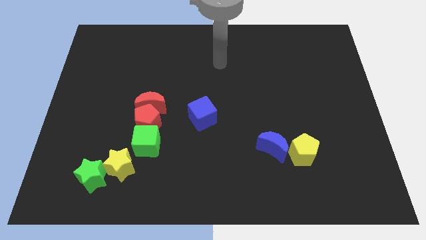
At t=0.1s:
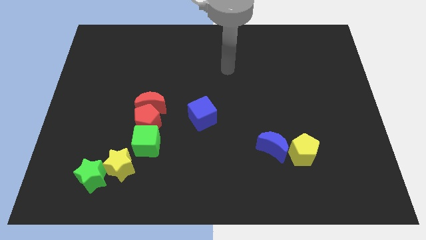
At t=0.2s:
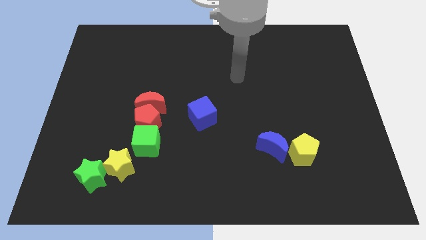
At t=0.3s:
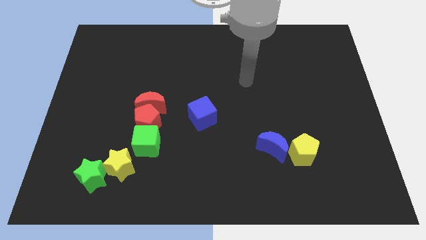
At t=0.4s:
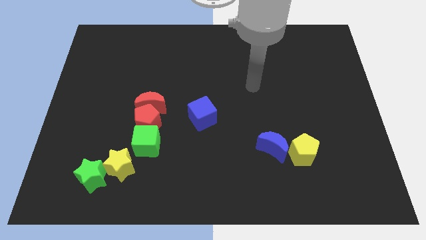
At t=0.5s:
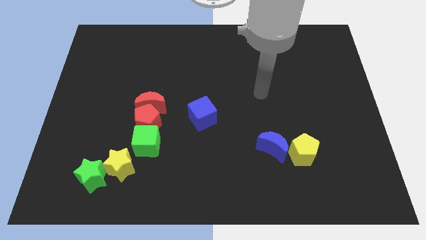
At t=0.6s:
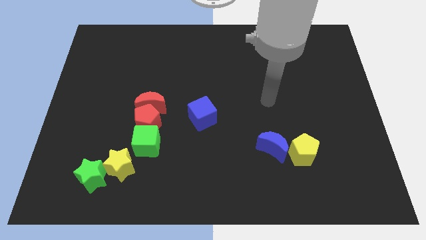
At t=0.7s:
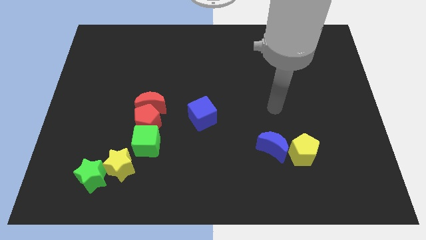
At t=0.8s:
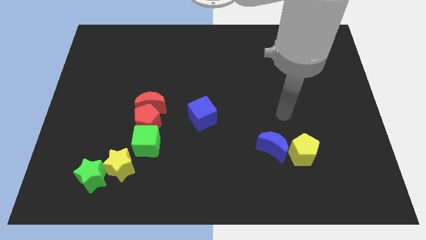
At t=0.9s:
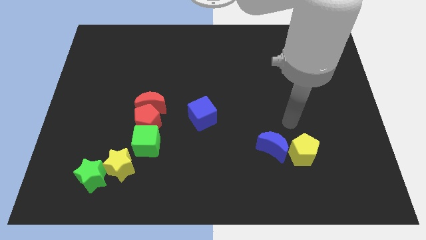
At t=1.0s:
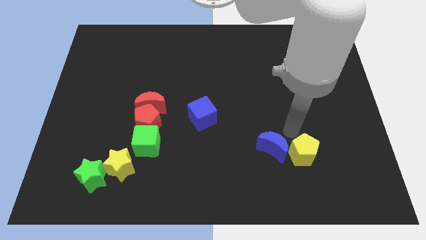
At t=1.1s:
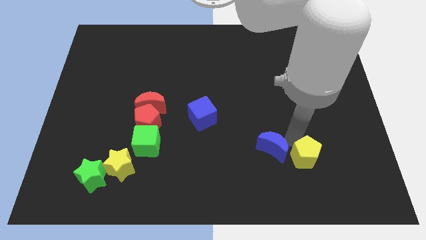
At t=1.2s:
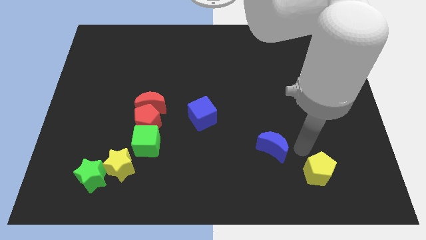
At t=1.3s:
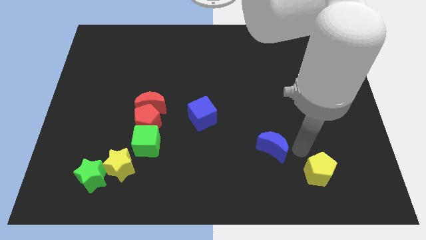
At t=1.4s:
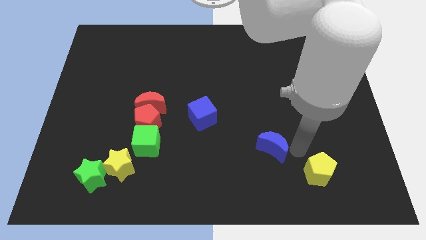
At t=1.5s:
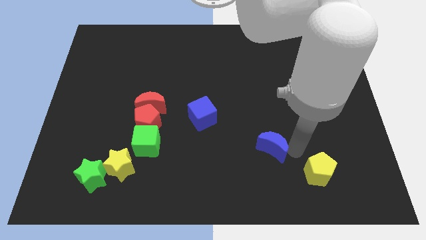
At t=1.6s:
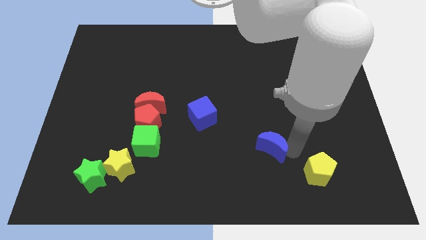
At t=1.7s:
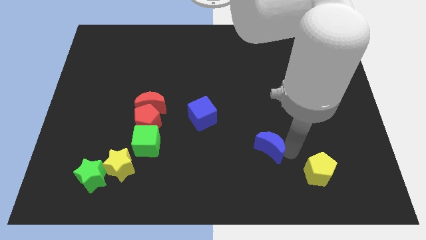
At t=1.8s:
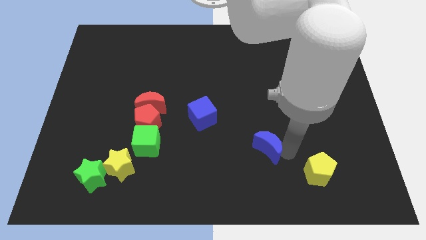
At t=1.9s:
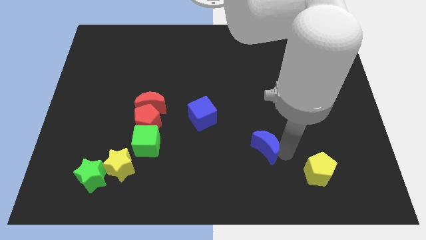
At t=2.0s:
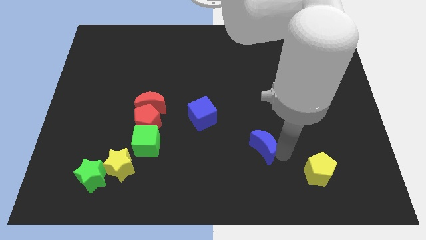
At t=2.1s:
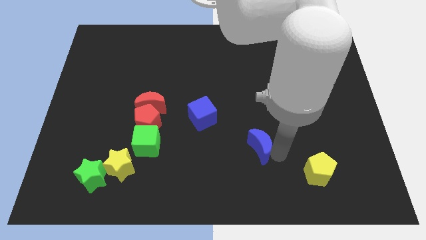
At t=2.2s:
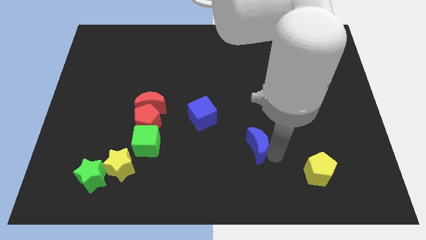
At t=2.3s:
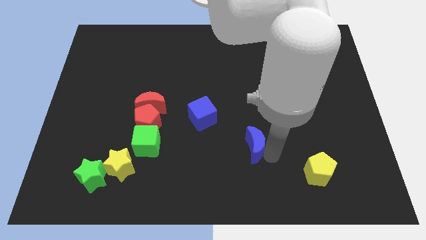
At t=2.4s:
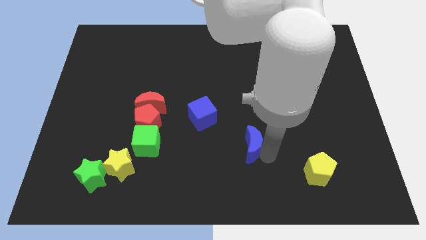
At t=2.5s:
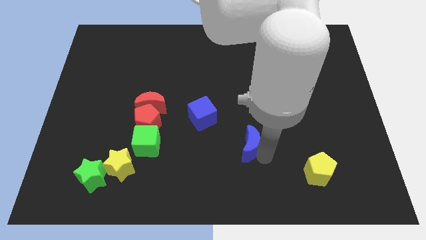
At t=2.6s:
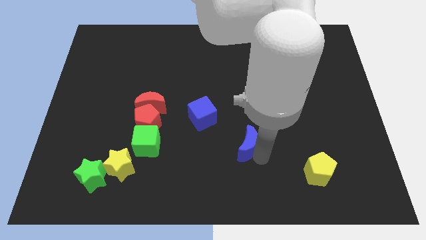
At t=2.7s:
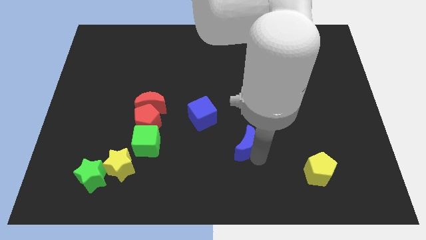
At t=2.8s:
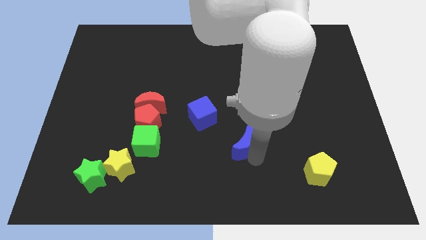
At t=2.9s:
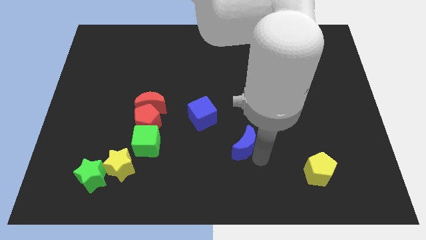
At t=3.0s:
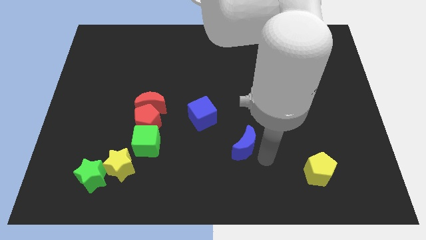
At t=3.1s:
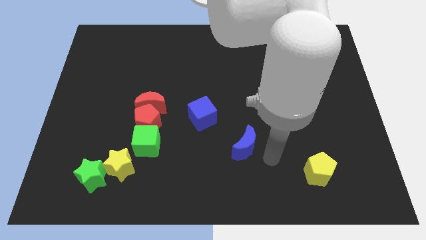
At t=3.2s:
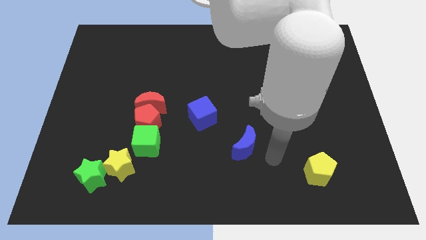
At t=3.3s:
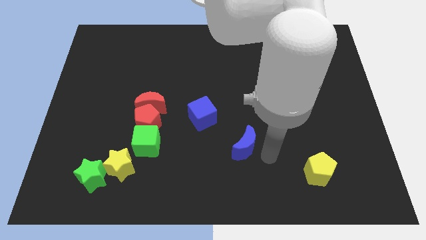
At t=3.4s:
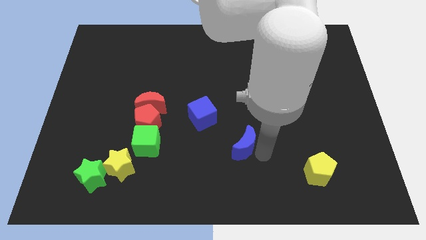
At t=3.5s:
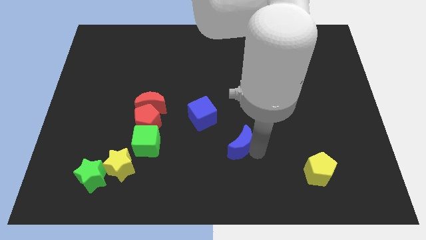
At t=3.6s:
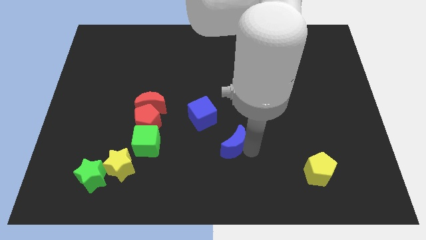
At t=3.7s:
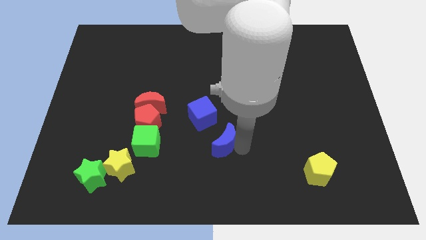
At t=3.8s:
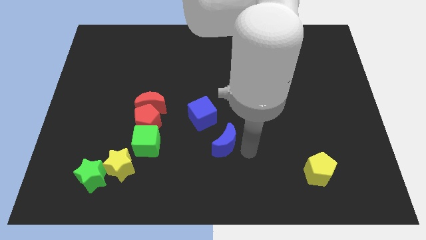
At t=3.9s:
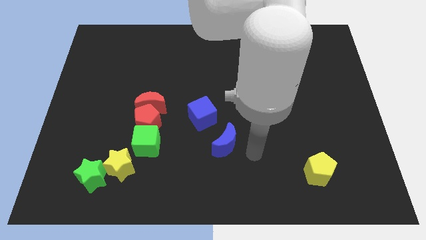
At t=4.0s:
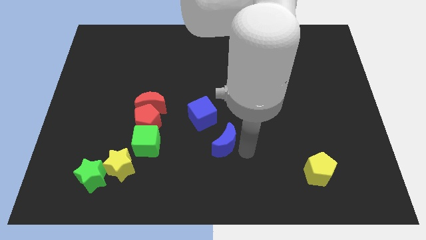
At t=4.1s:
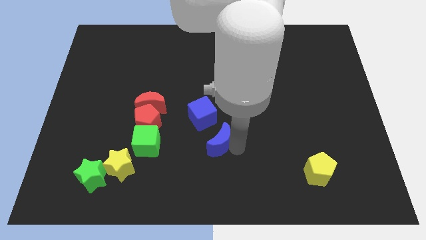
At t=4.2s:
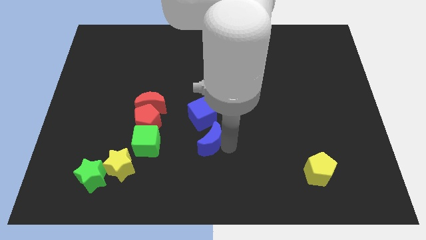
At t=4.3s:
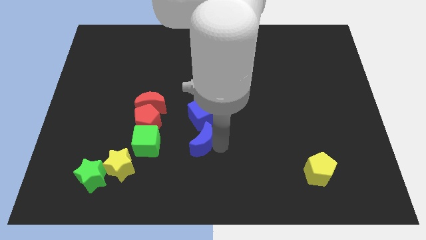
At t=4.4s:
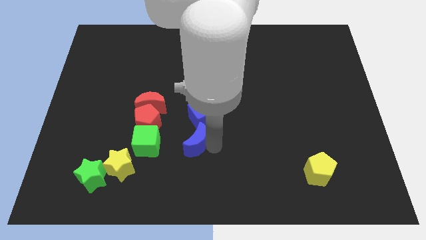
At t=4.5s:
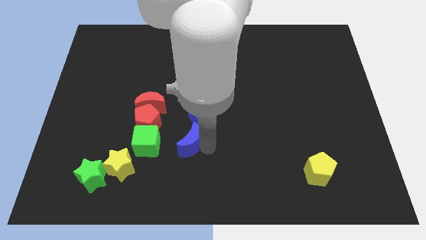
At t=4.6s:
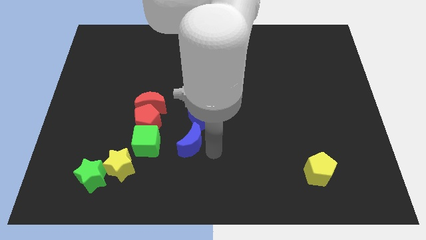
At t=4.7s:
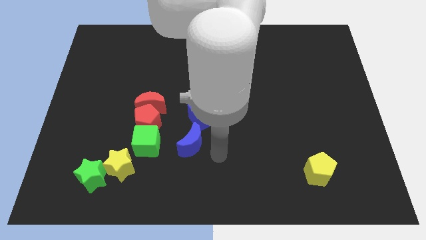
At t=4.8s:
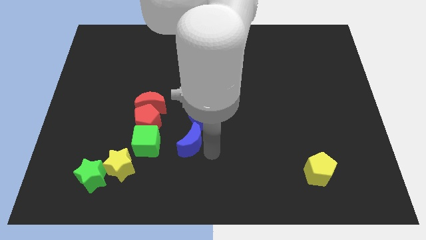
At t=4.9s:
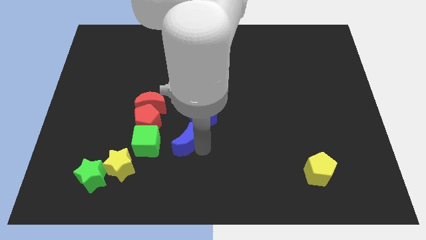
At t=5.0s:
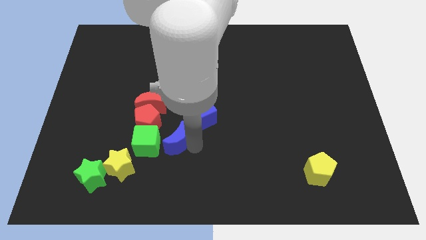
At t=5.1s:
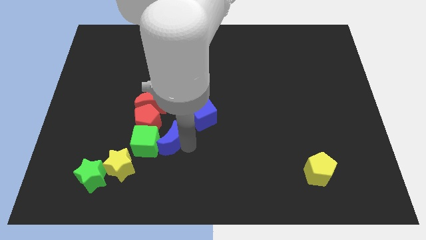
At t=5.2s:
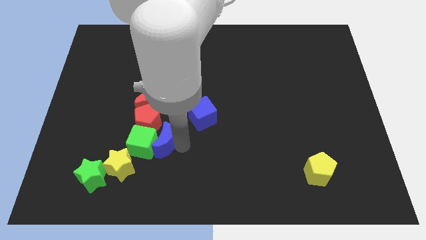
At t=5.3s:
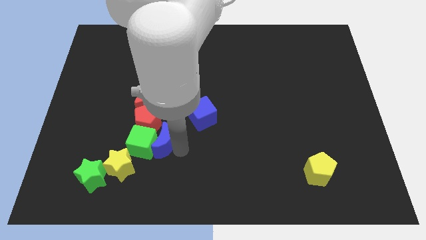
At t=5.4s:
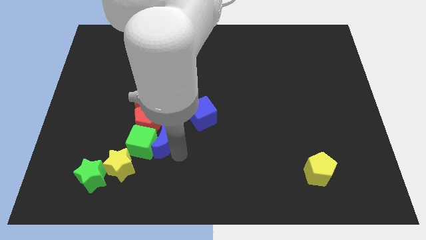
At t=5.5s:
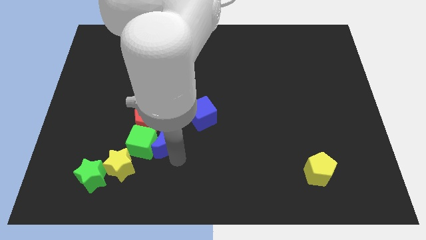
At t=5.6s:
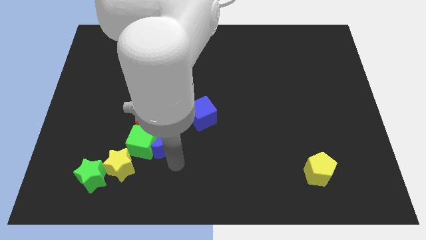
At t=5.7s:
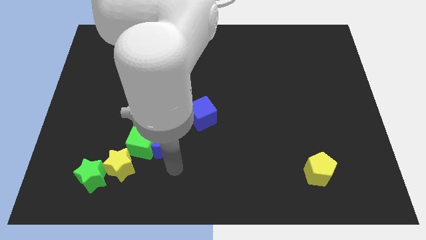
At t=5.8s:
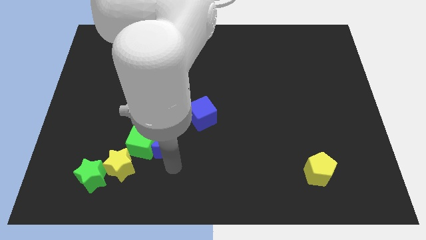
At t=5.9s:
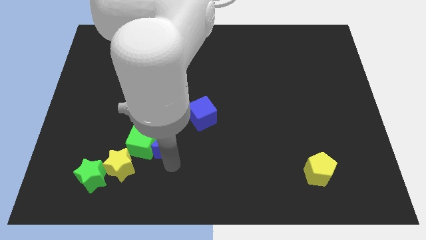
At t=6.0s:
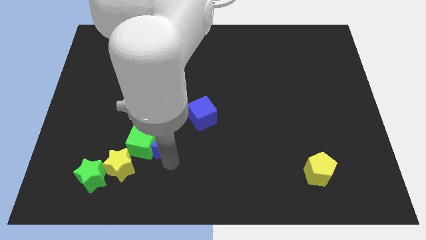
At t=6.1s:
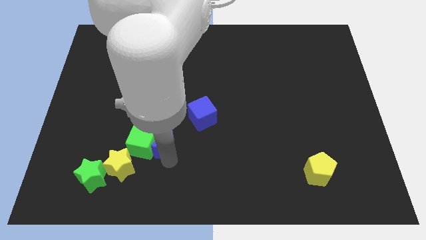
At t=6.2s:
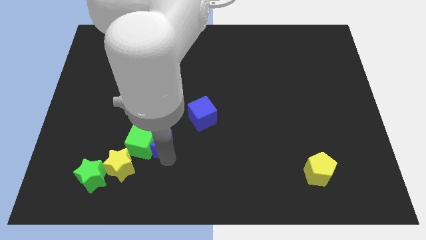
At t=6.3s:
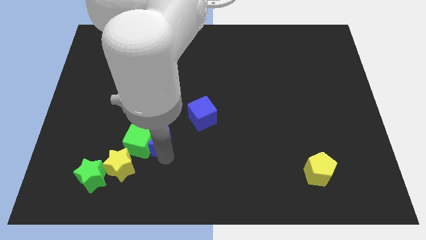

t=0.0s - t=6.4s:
put the blue moon towards the red pentagon

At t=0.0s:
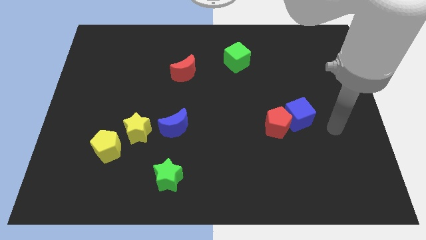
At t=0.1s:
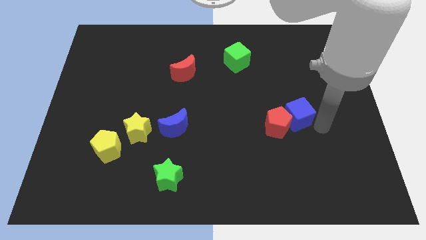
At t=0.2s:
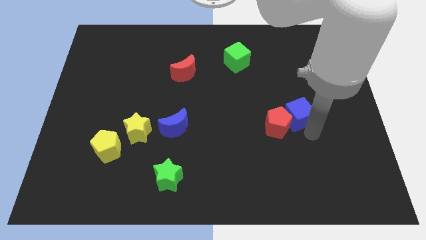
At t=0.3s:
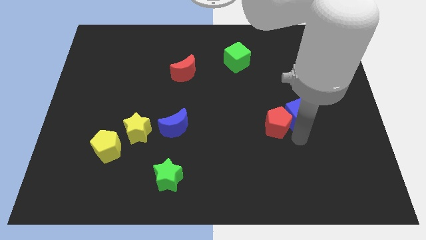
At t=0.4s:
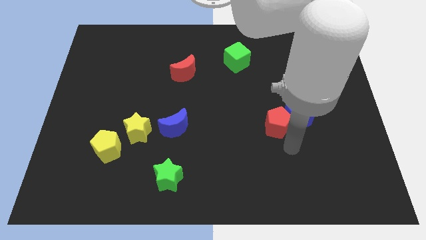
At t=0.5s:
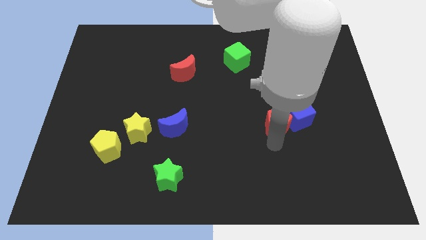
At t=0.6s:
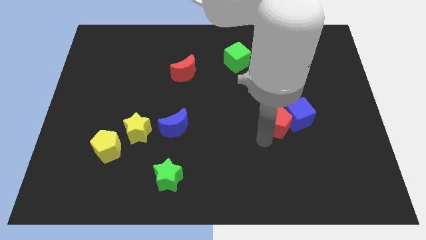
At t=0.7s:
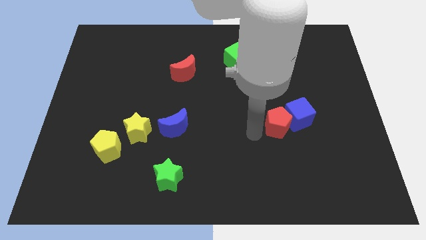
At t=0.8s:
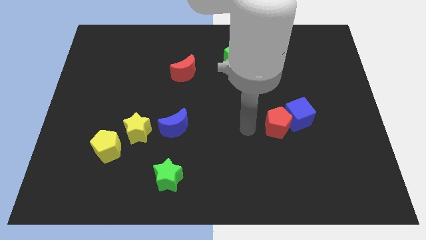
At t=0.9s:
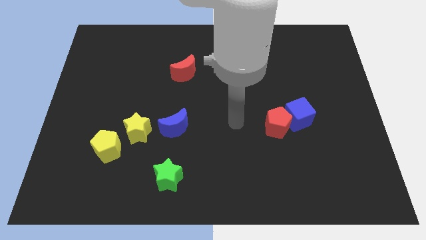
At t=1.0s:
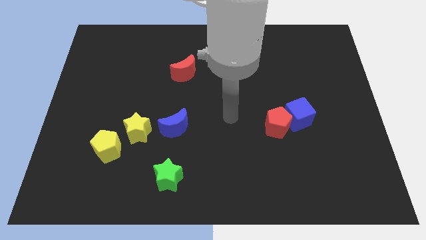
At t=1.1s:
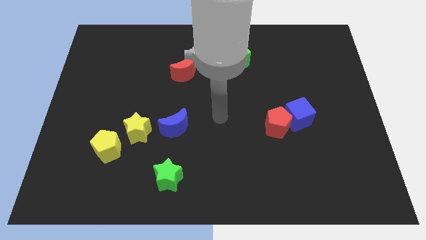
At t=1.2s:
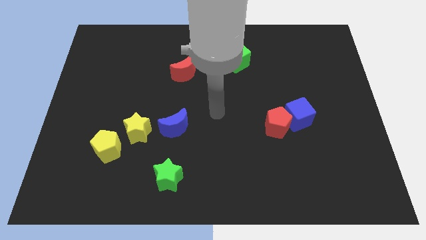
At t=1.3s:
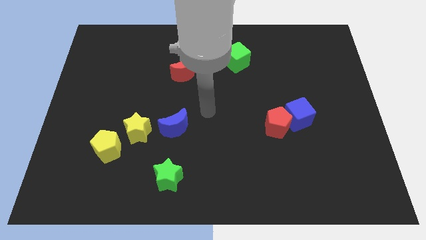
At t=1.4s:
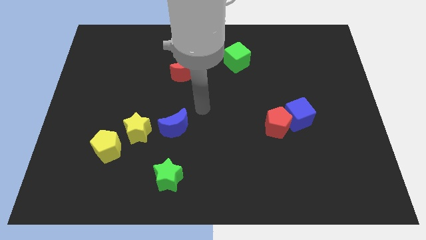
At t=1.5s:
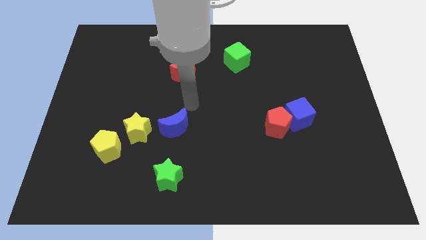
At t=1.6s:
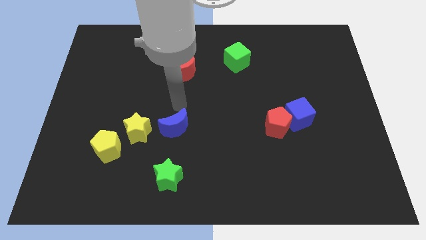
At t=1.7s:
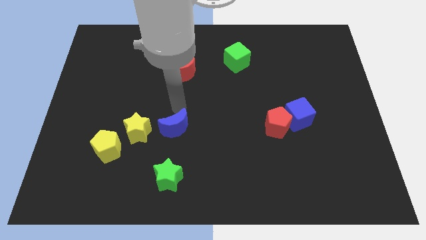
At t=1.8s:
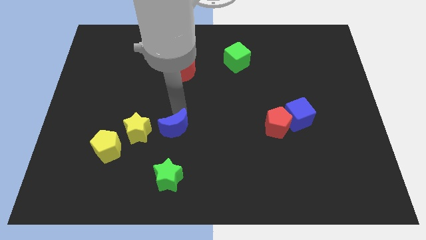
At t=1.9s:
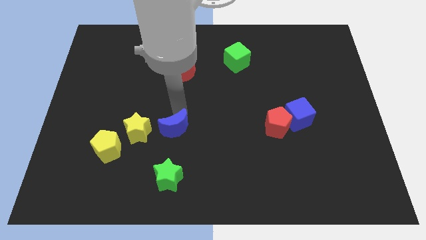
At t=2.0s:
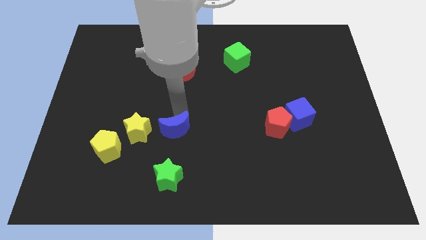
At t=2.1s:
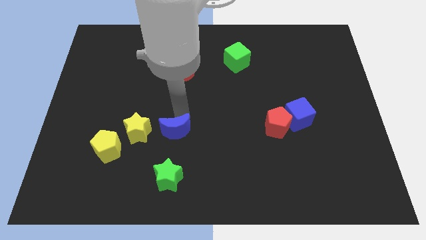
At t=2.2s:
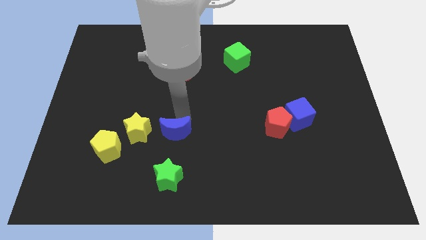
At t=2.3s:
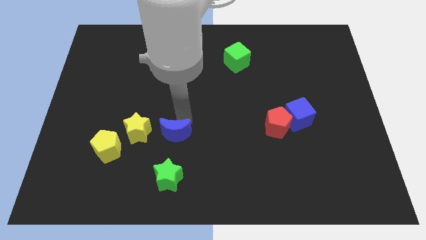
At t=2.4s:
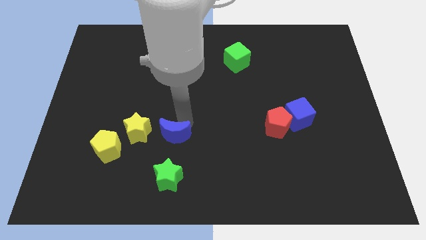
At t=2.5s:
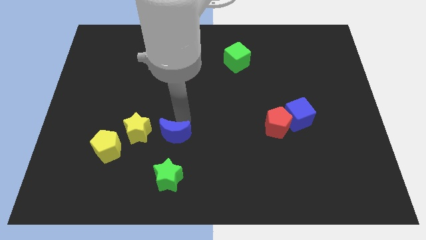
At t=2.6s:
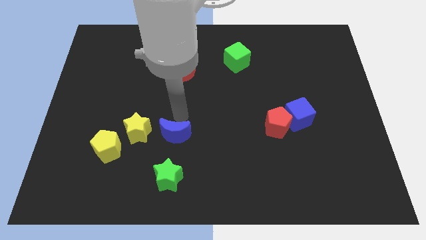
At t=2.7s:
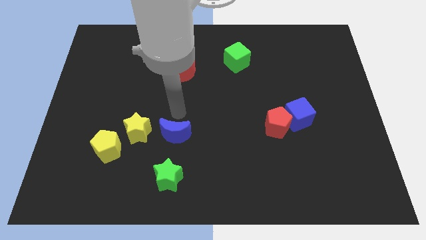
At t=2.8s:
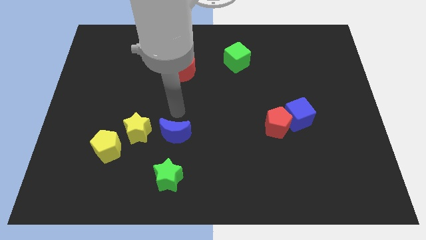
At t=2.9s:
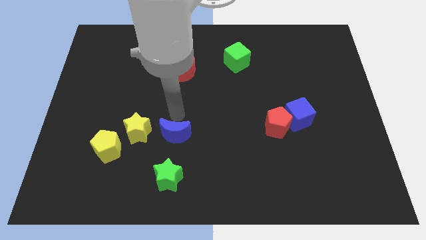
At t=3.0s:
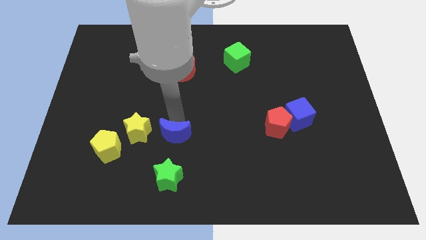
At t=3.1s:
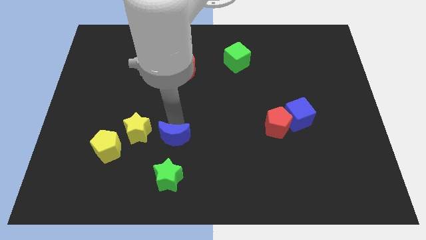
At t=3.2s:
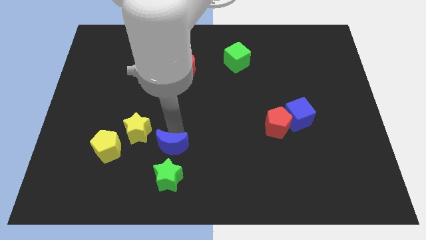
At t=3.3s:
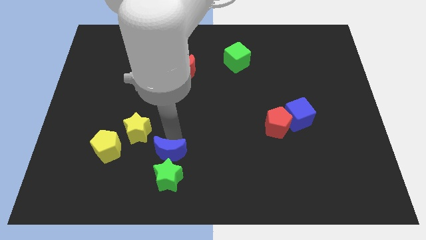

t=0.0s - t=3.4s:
slide the blue moon towards the green star
